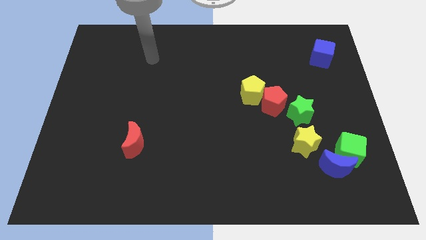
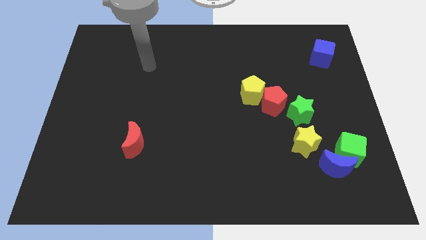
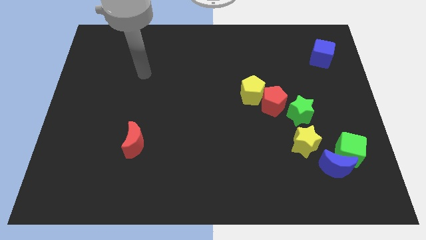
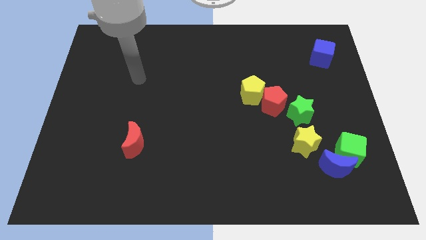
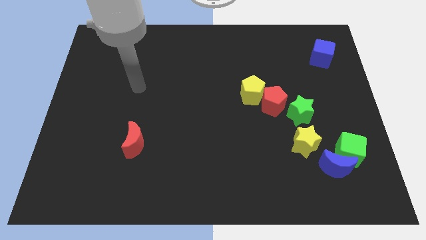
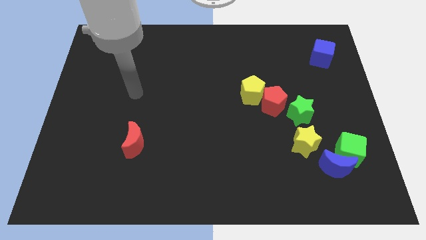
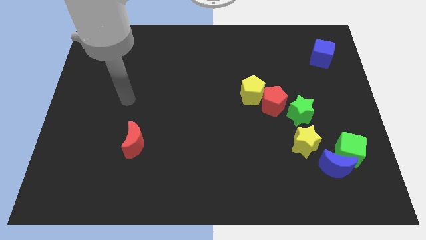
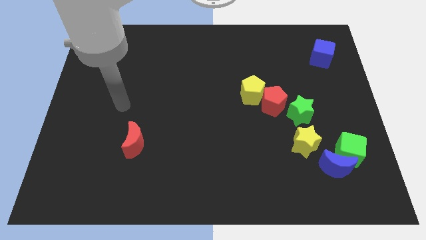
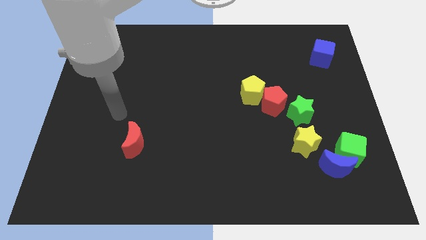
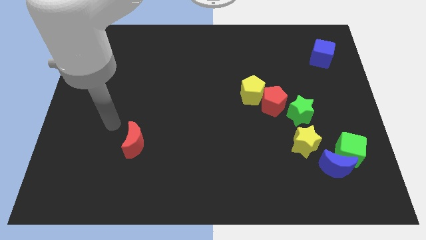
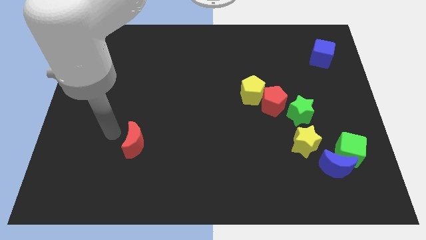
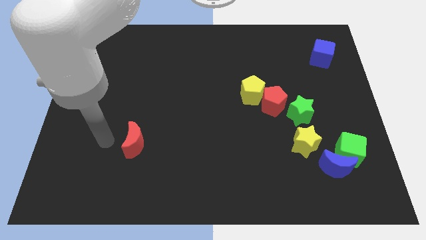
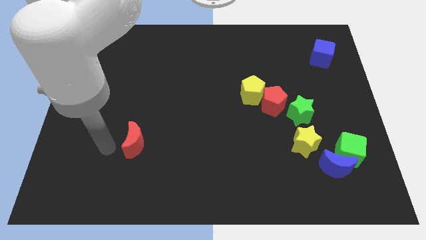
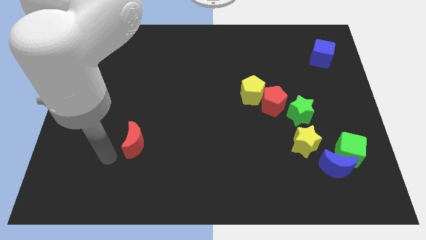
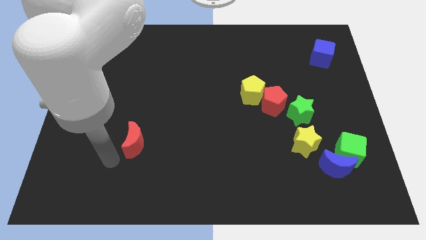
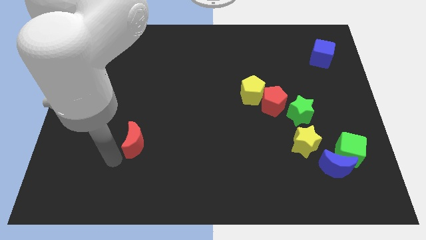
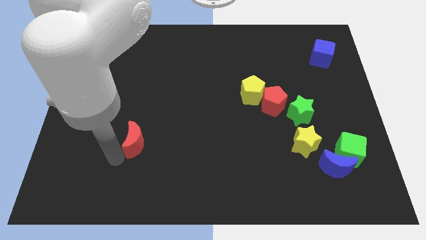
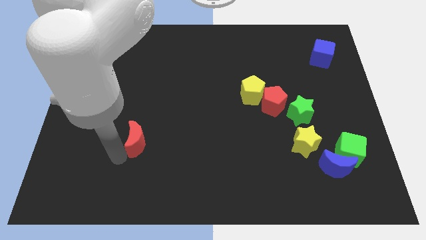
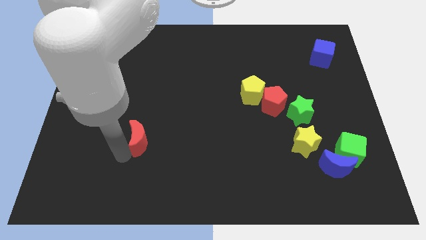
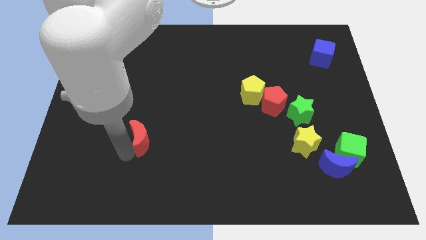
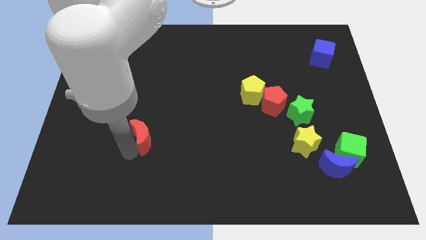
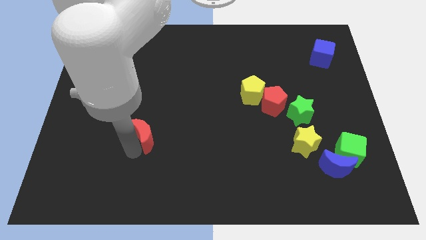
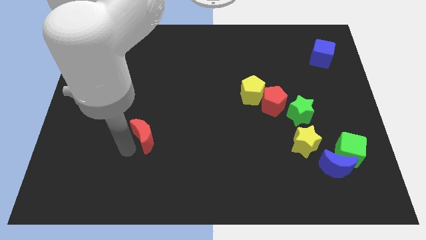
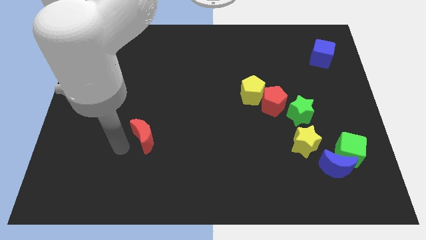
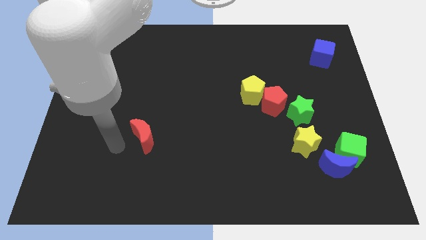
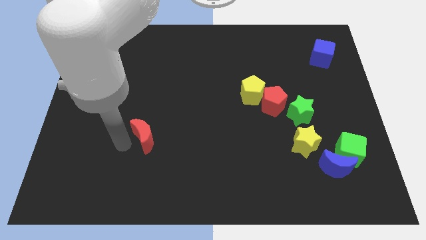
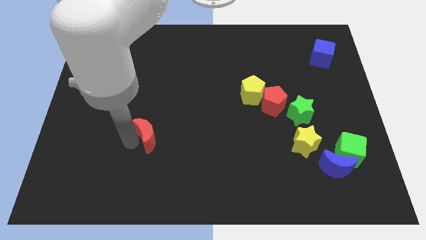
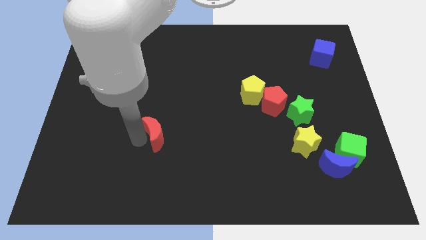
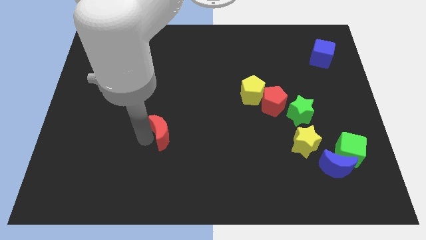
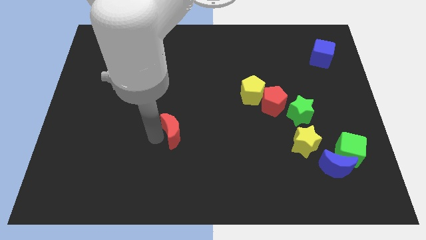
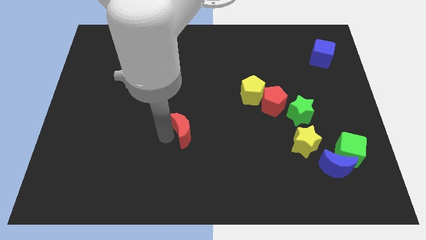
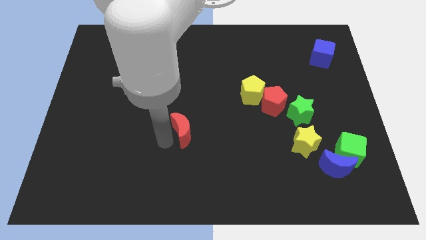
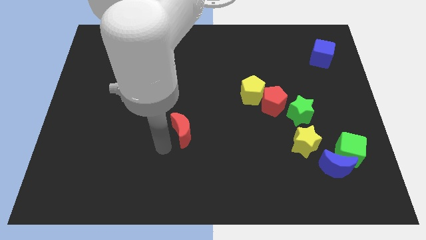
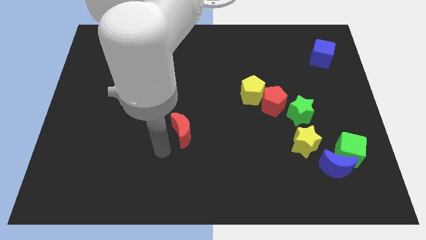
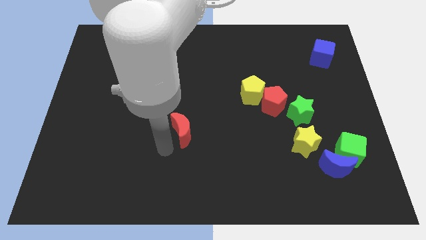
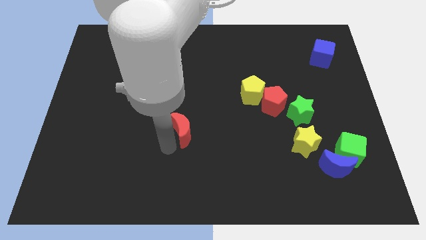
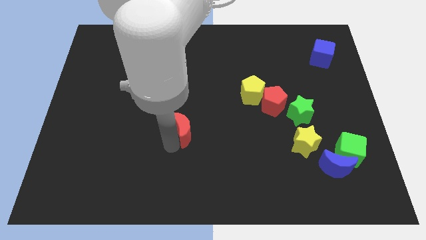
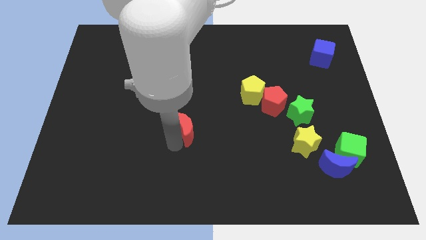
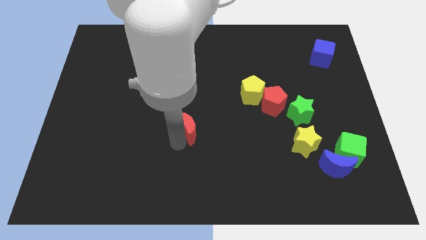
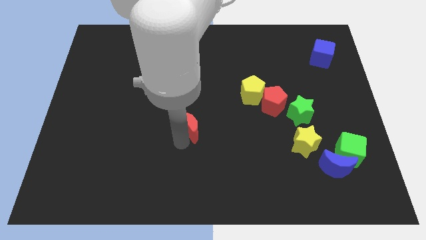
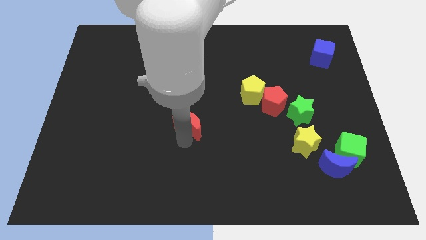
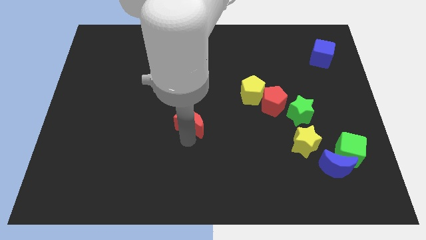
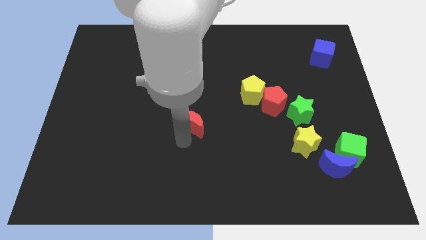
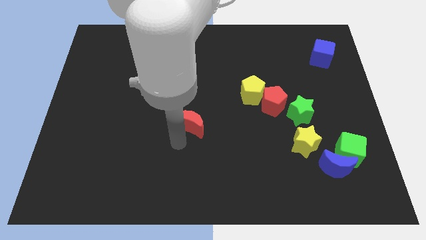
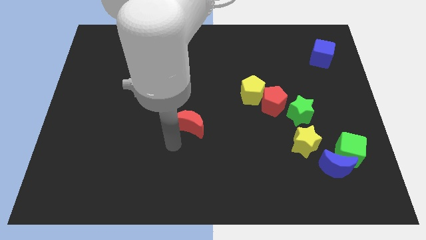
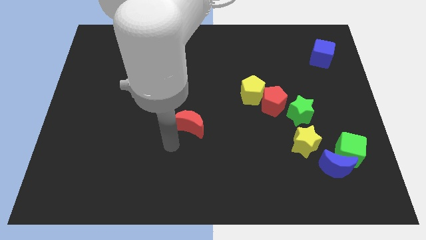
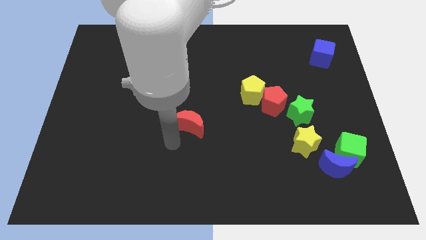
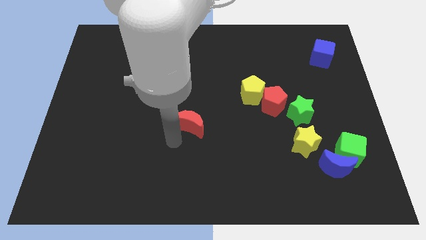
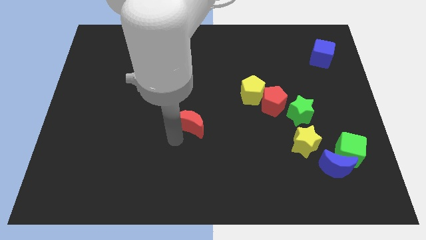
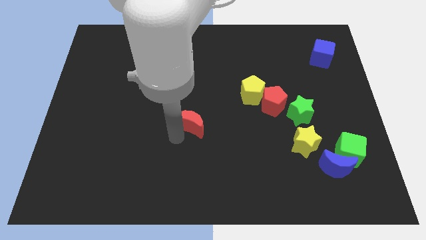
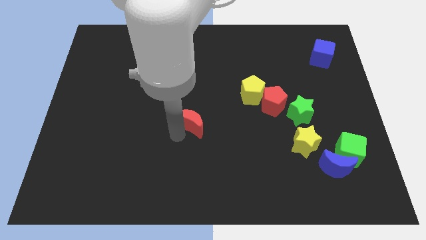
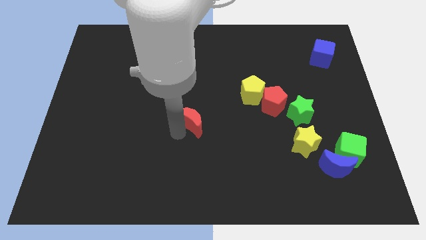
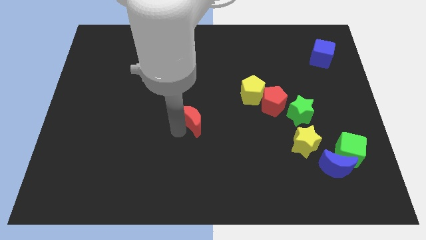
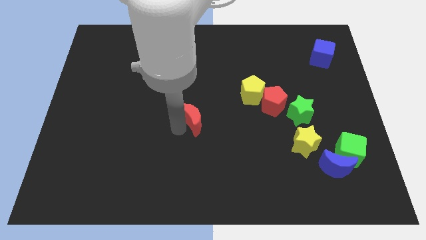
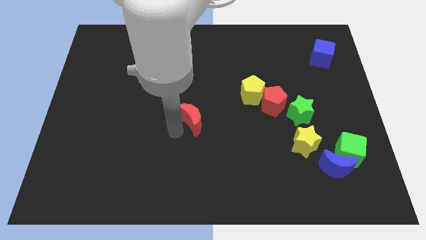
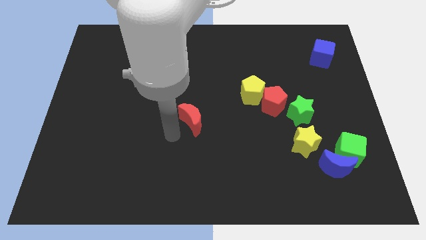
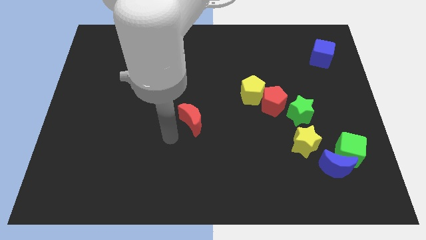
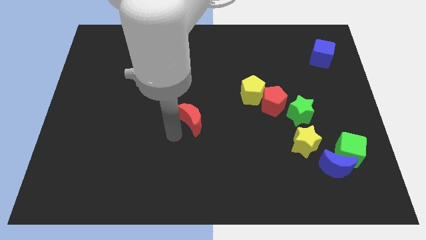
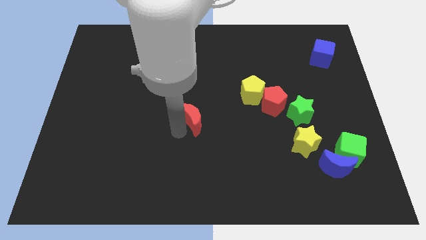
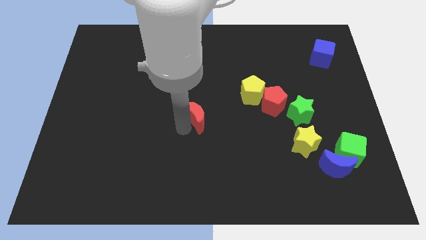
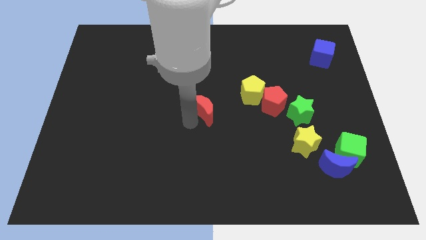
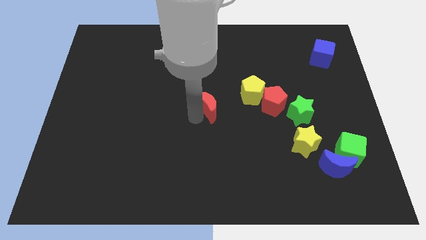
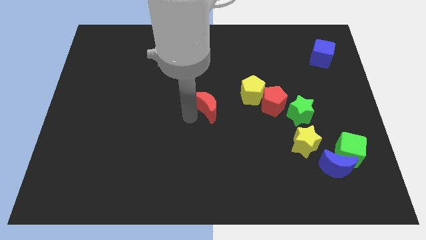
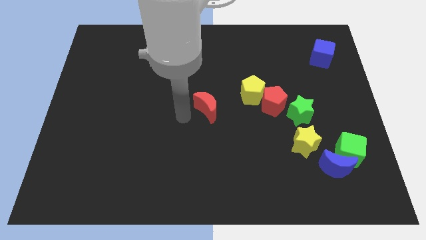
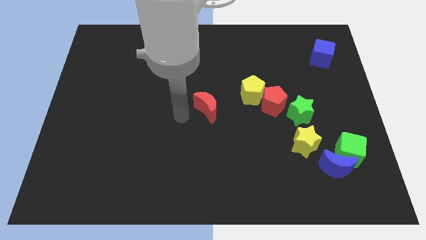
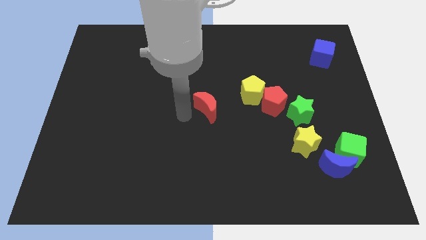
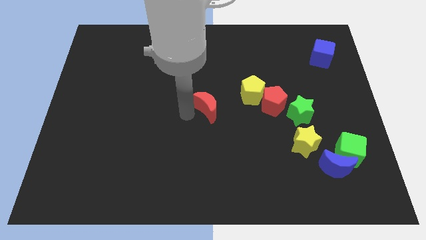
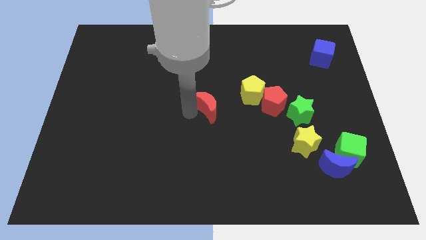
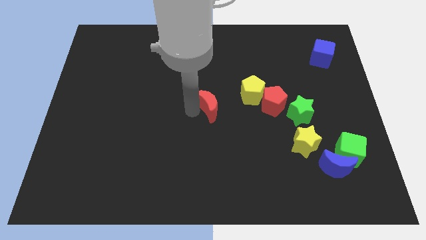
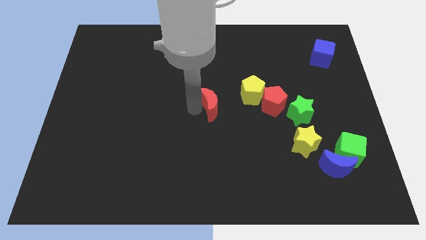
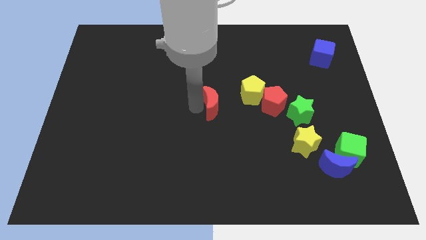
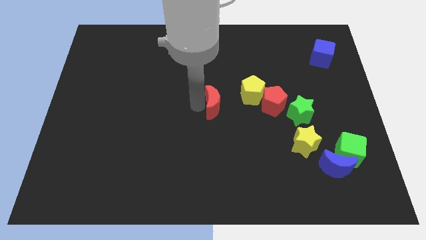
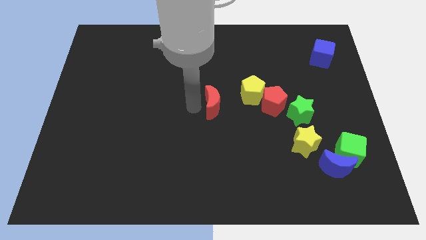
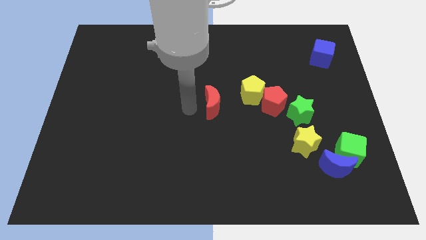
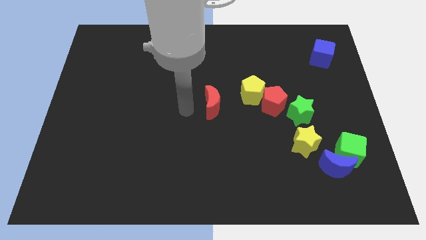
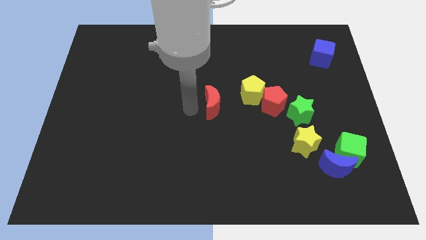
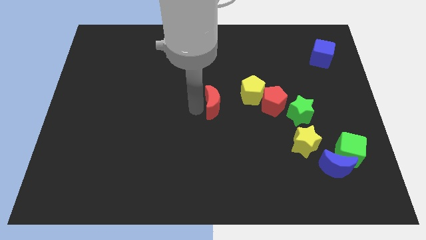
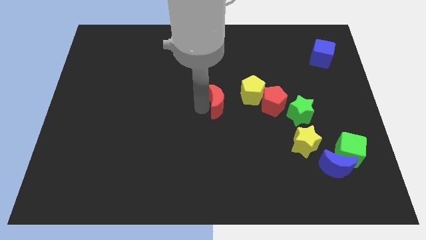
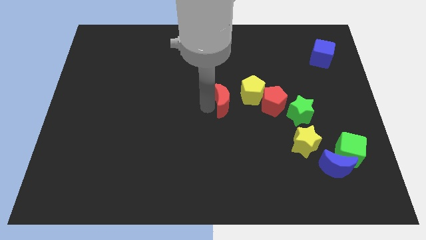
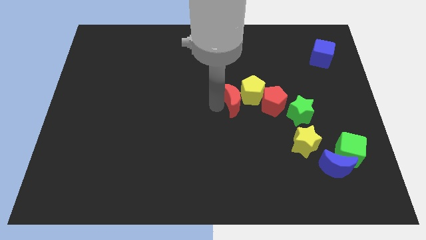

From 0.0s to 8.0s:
move the red moon towards the yellow pentagon
